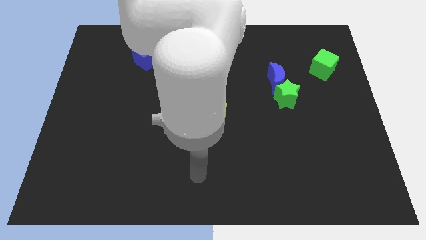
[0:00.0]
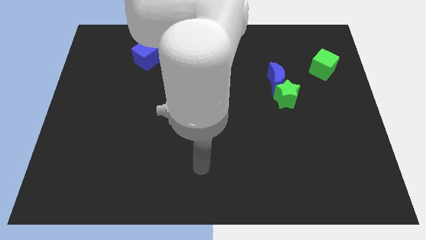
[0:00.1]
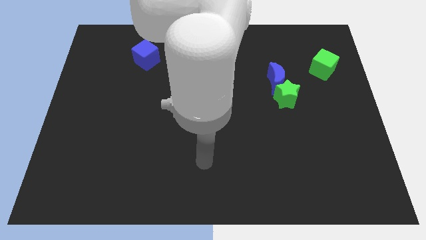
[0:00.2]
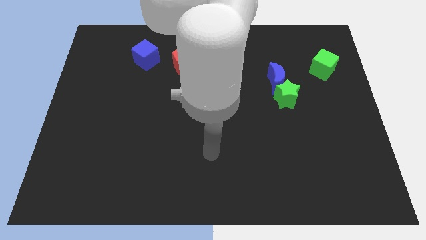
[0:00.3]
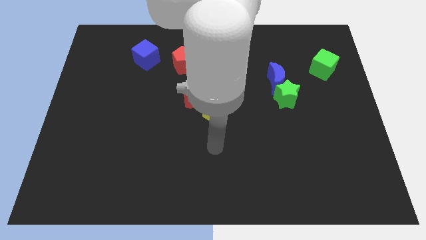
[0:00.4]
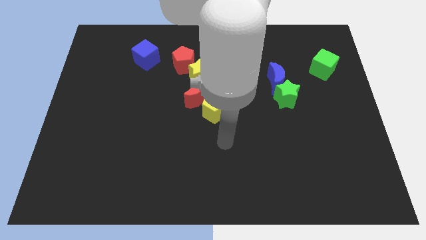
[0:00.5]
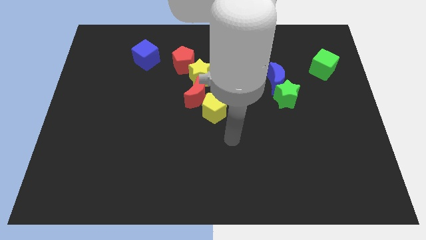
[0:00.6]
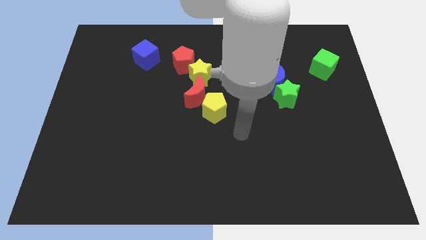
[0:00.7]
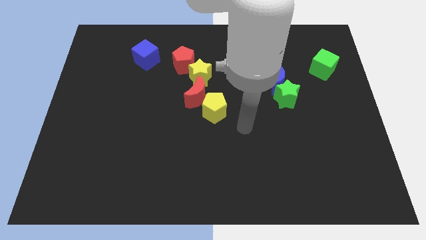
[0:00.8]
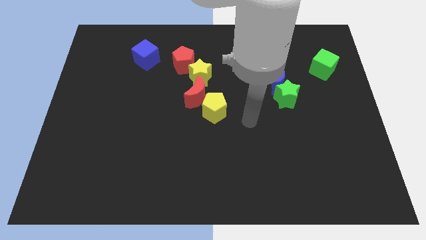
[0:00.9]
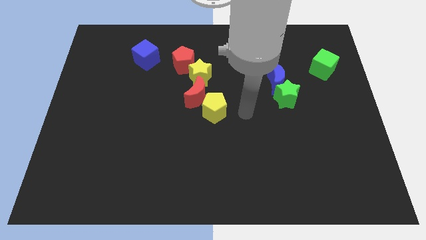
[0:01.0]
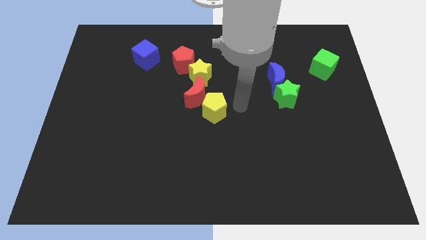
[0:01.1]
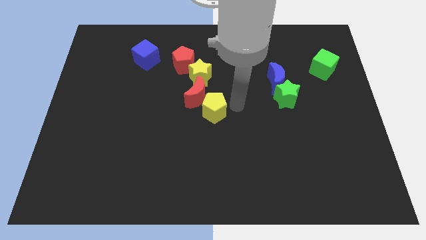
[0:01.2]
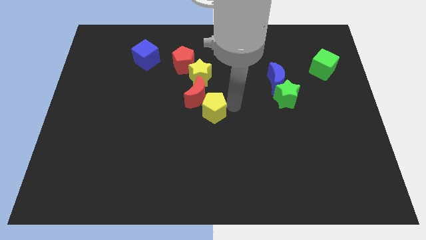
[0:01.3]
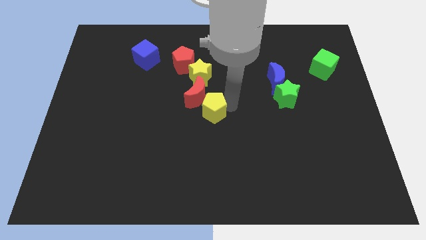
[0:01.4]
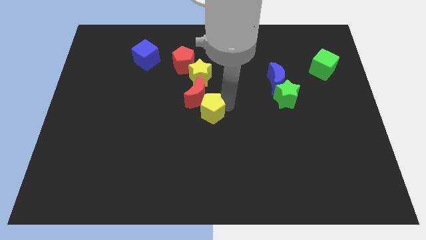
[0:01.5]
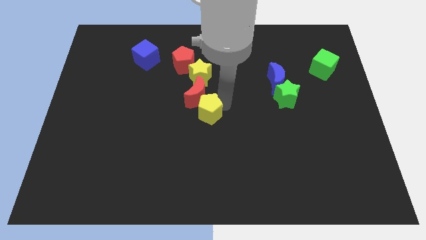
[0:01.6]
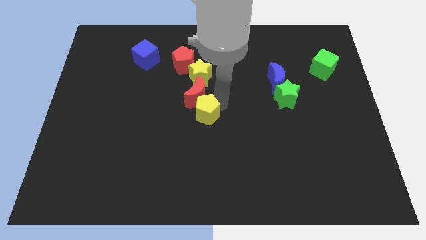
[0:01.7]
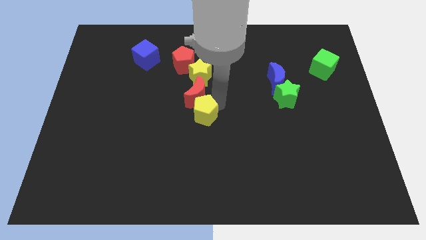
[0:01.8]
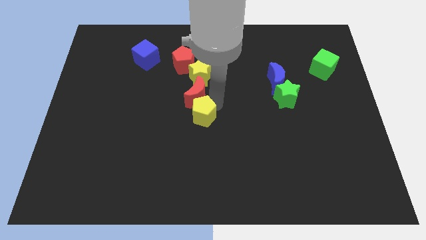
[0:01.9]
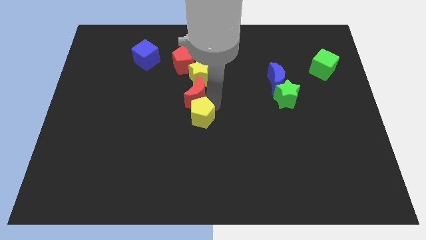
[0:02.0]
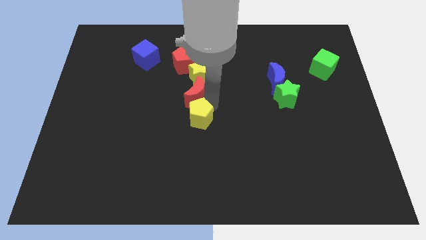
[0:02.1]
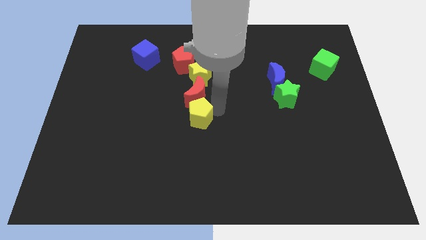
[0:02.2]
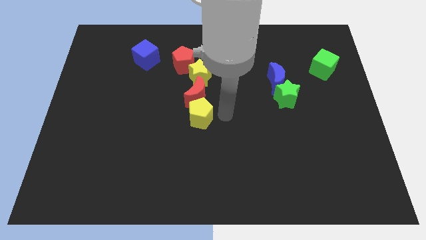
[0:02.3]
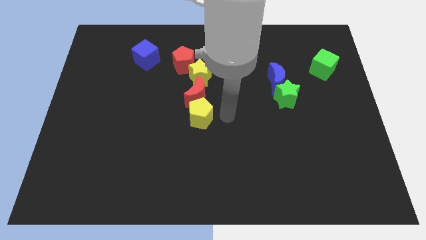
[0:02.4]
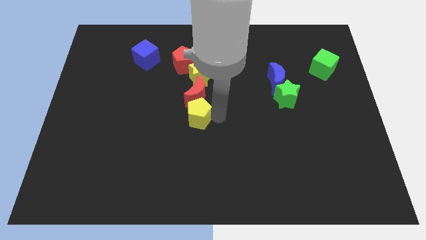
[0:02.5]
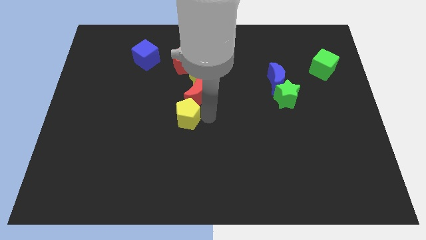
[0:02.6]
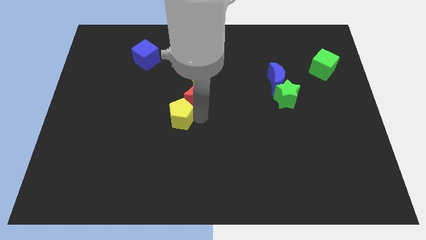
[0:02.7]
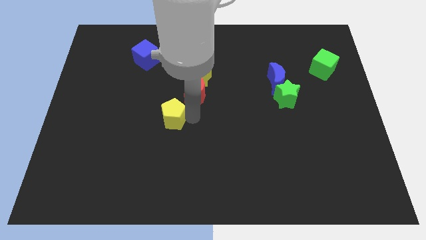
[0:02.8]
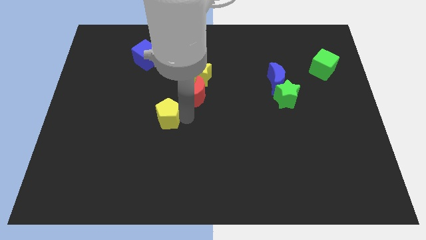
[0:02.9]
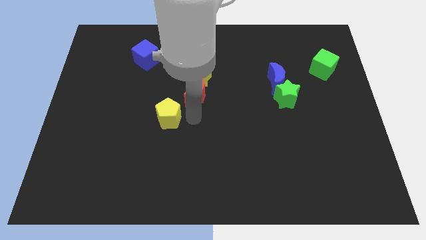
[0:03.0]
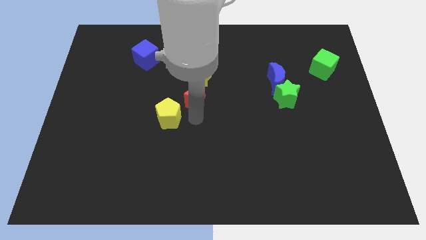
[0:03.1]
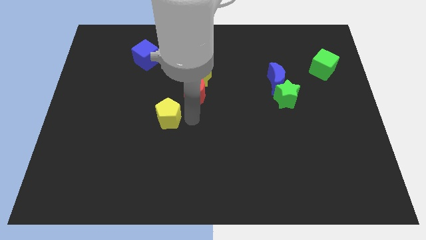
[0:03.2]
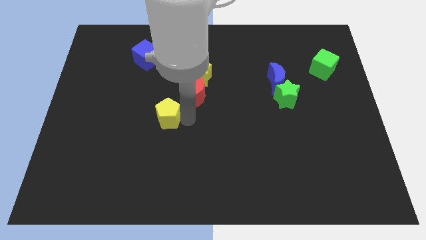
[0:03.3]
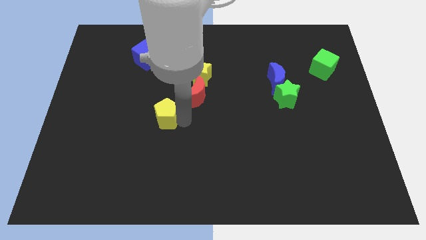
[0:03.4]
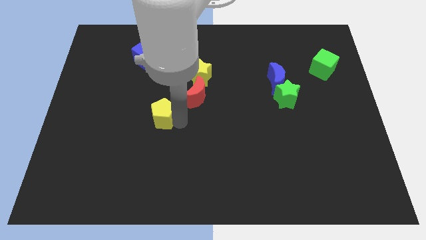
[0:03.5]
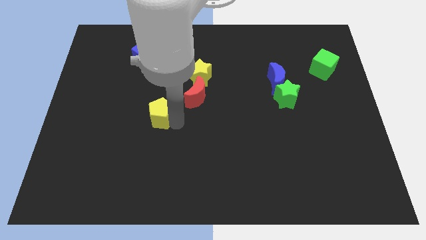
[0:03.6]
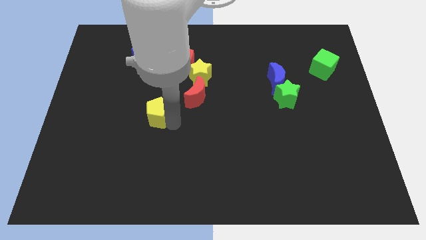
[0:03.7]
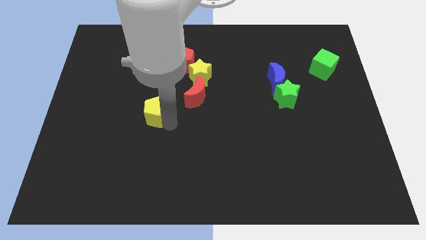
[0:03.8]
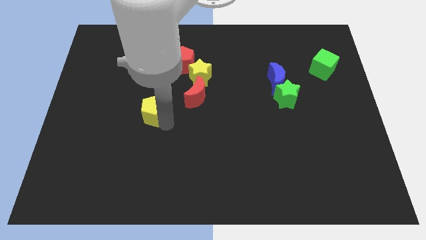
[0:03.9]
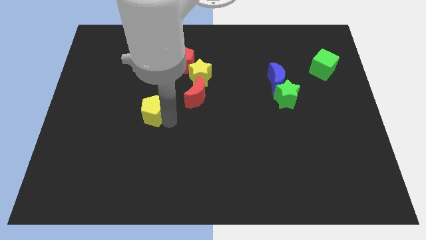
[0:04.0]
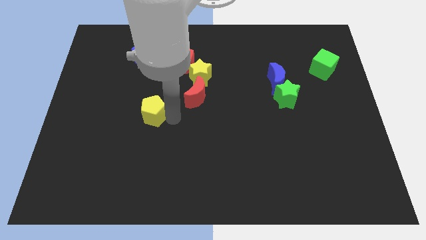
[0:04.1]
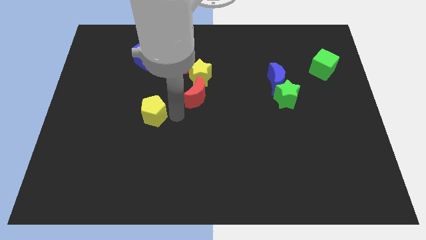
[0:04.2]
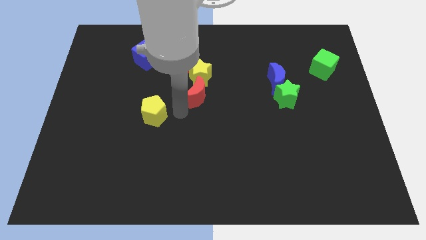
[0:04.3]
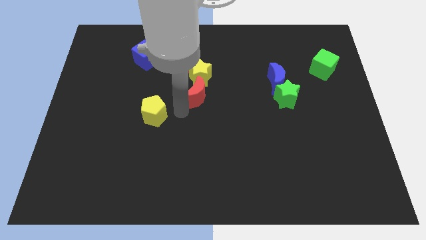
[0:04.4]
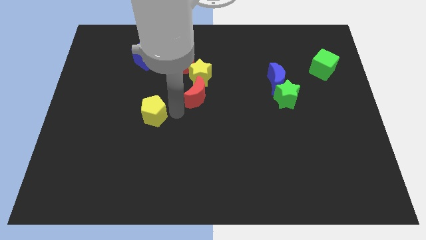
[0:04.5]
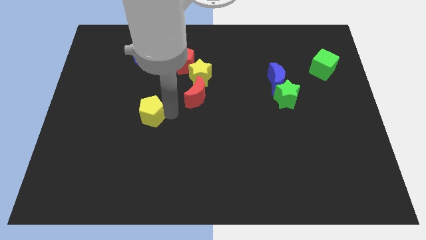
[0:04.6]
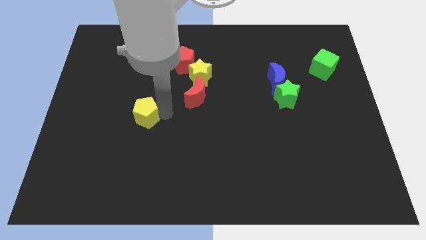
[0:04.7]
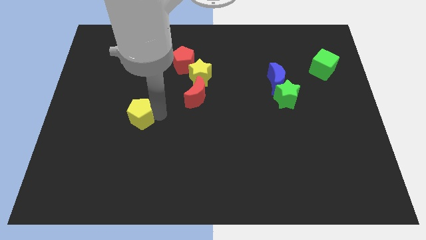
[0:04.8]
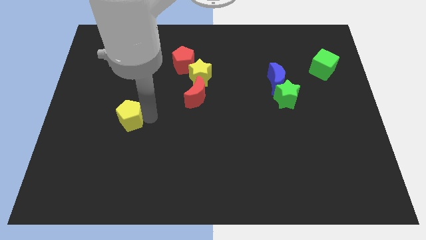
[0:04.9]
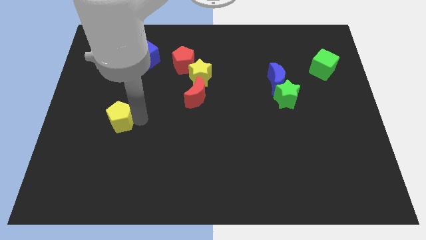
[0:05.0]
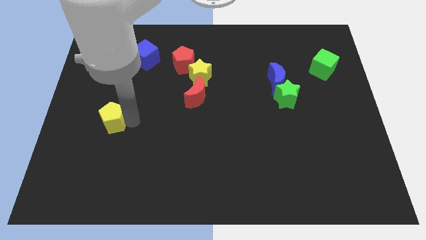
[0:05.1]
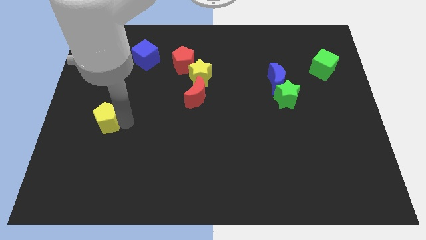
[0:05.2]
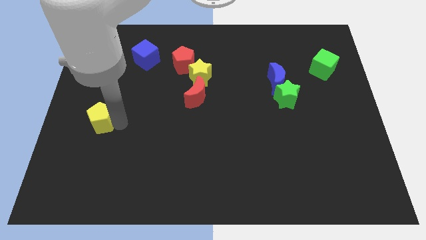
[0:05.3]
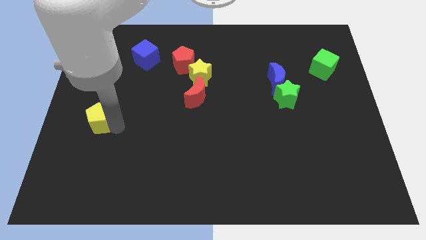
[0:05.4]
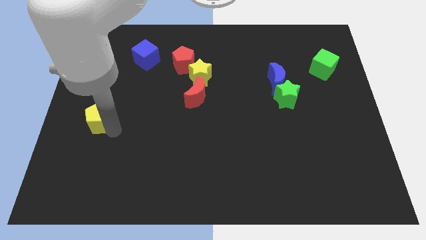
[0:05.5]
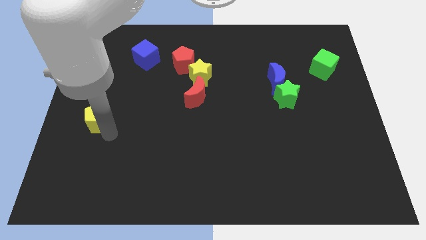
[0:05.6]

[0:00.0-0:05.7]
push the yellow pentagon to the left side

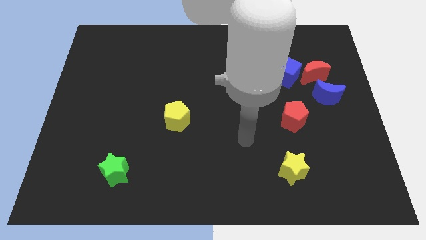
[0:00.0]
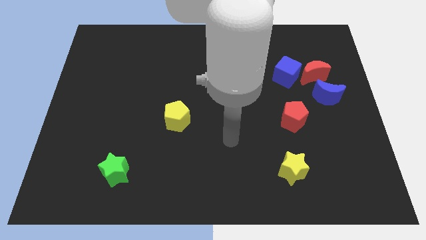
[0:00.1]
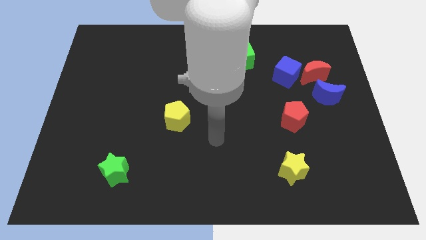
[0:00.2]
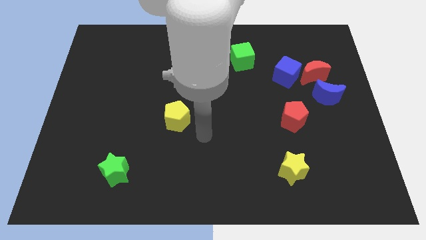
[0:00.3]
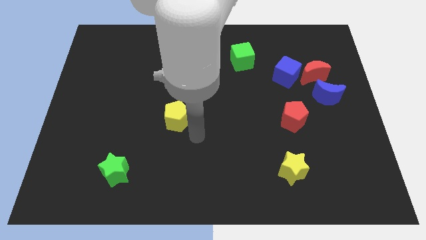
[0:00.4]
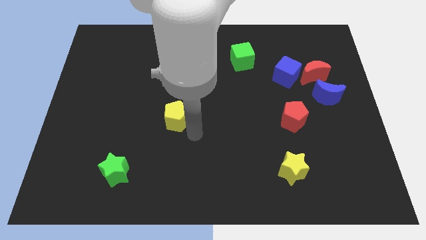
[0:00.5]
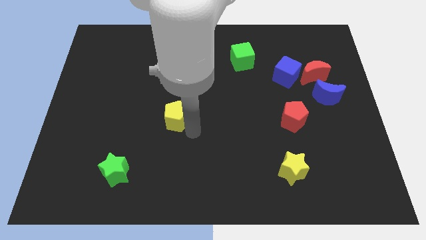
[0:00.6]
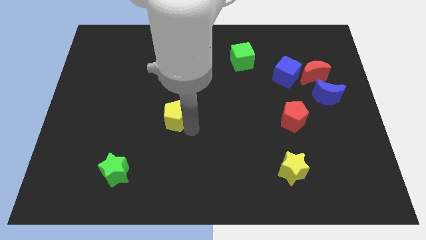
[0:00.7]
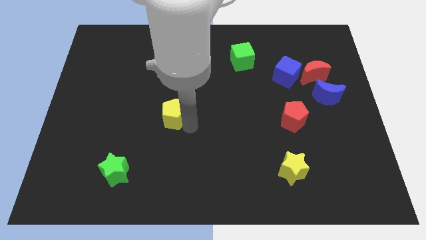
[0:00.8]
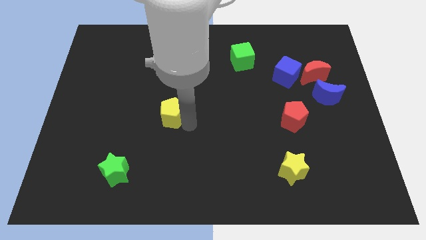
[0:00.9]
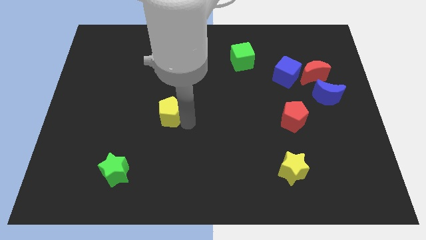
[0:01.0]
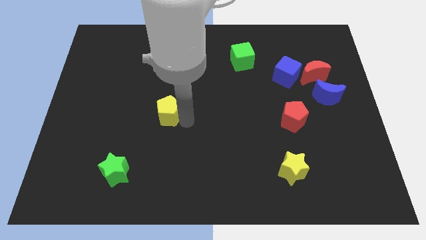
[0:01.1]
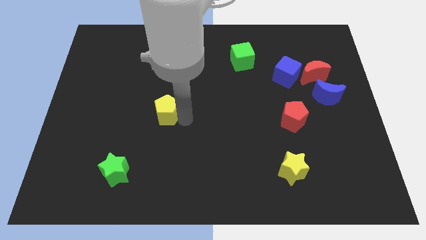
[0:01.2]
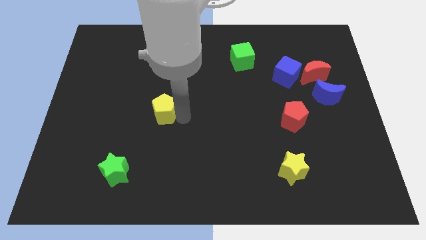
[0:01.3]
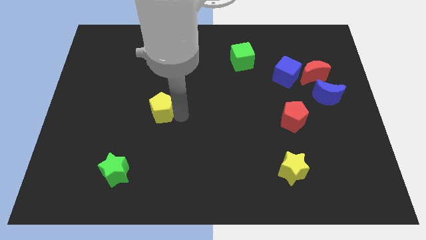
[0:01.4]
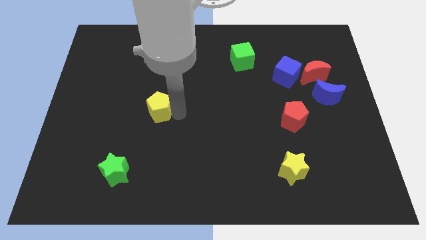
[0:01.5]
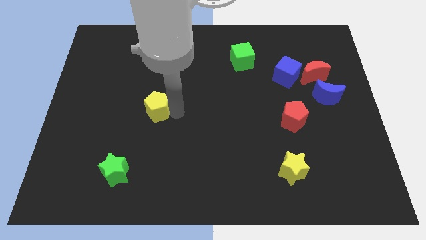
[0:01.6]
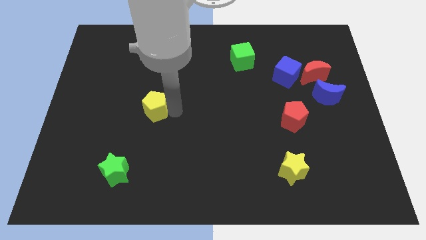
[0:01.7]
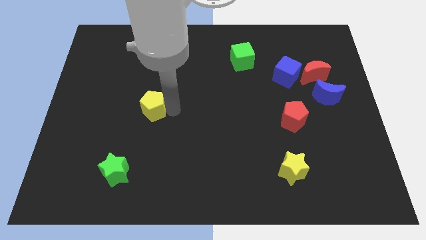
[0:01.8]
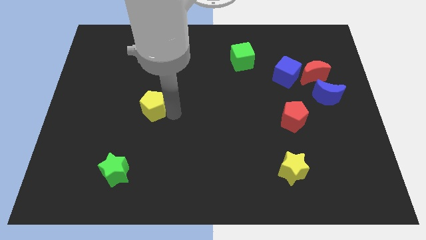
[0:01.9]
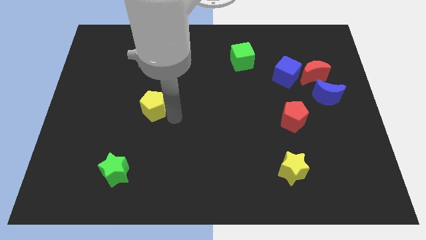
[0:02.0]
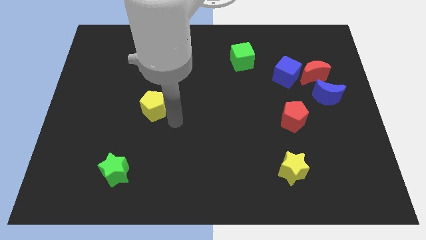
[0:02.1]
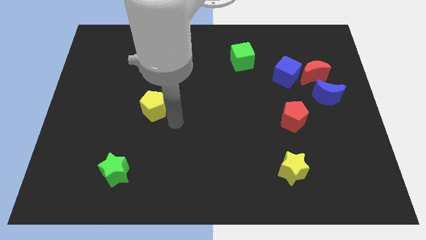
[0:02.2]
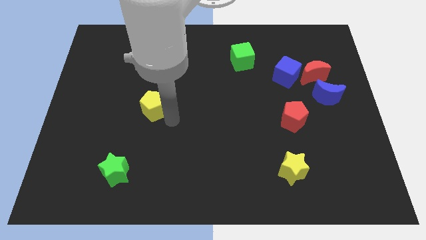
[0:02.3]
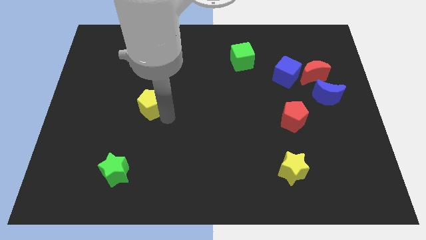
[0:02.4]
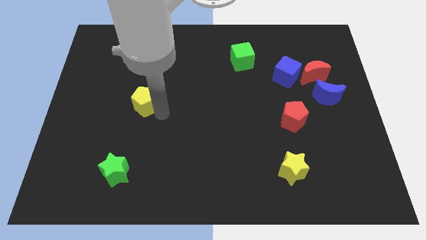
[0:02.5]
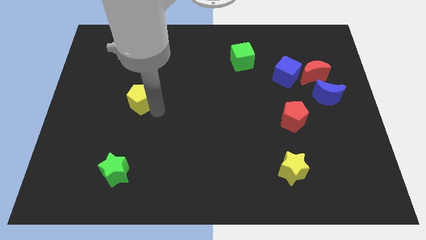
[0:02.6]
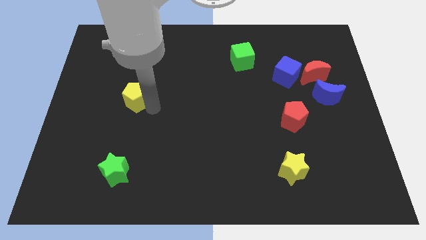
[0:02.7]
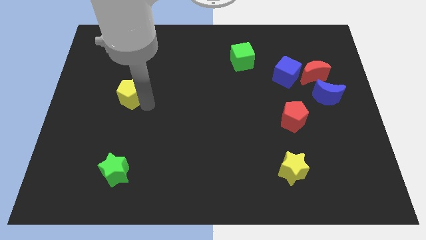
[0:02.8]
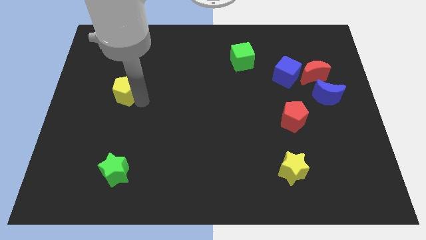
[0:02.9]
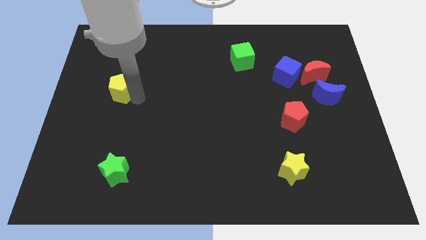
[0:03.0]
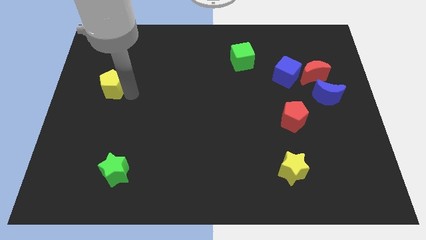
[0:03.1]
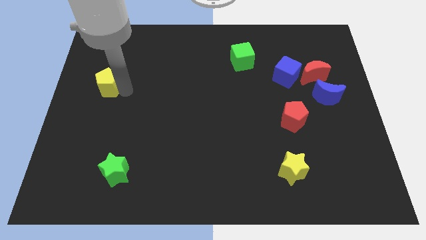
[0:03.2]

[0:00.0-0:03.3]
put the yellow pentagon to the center left
